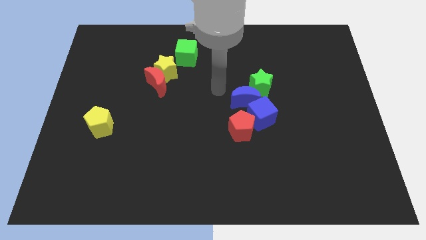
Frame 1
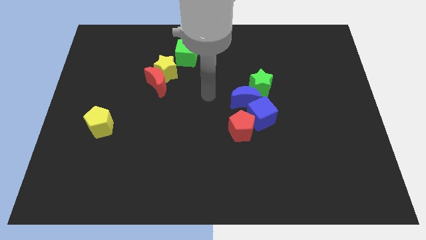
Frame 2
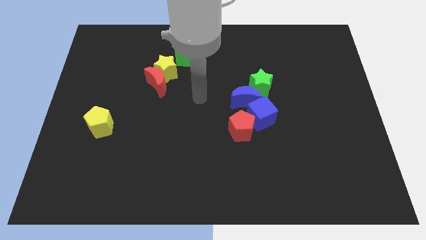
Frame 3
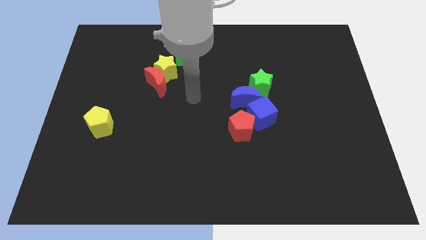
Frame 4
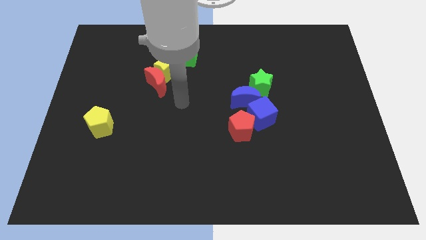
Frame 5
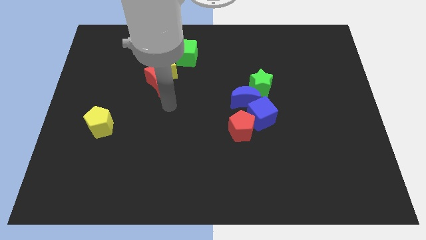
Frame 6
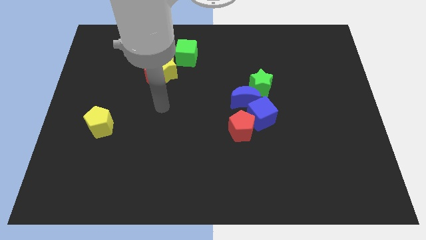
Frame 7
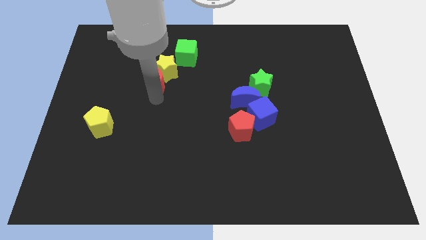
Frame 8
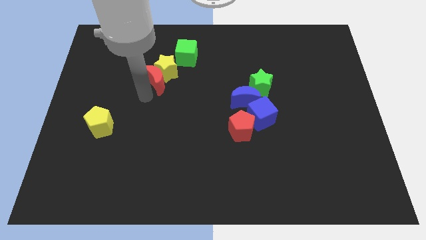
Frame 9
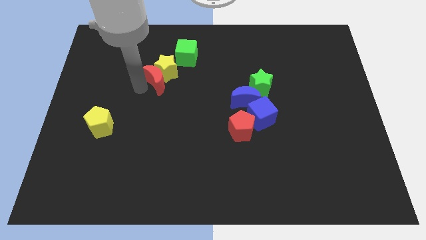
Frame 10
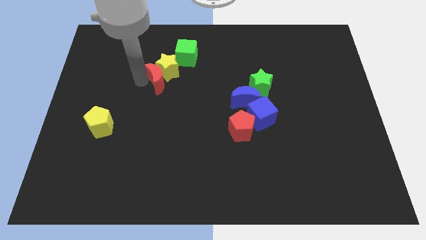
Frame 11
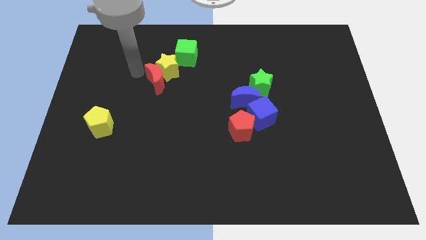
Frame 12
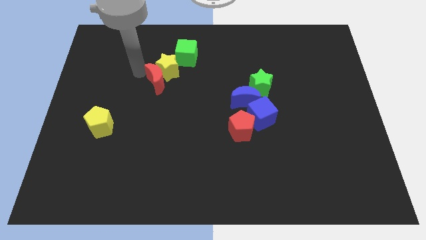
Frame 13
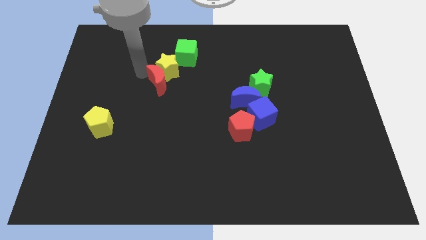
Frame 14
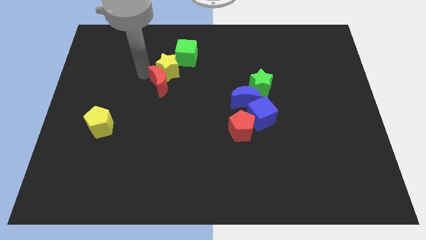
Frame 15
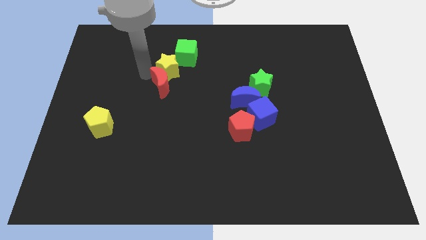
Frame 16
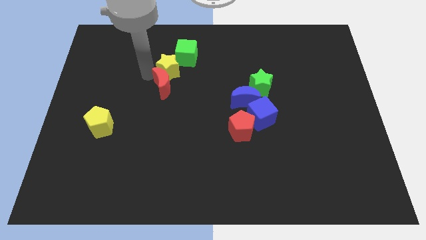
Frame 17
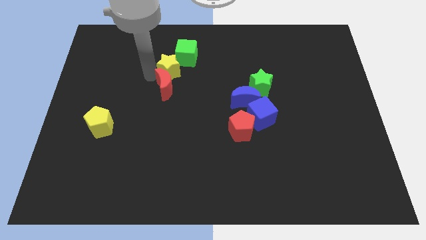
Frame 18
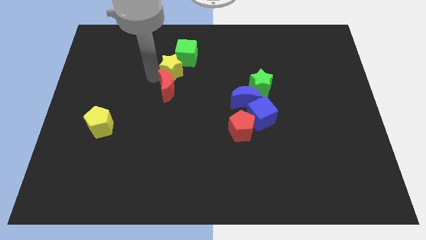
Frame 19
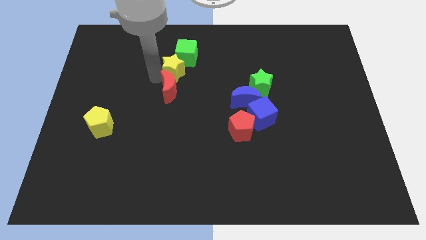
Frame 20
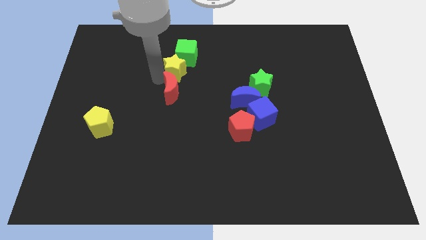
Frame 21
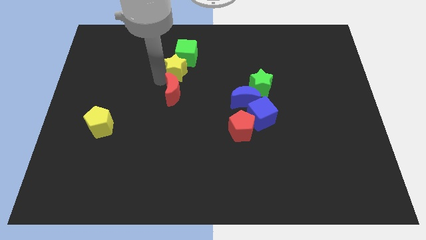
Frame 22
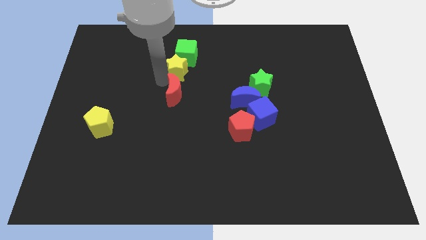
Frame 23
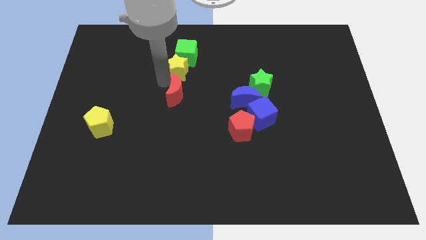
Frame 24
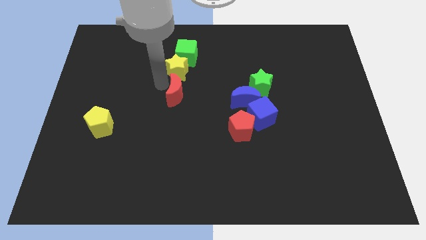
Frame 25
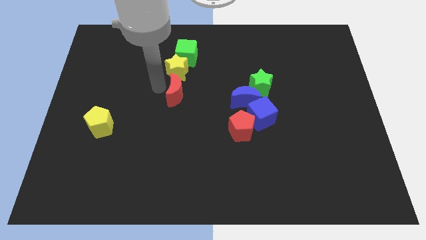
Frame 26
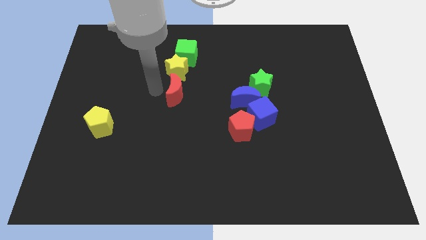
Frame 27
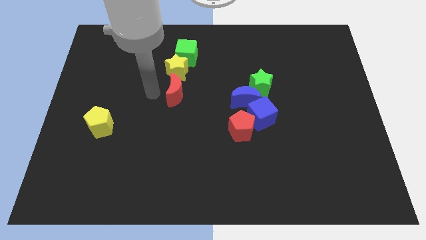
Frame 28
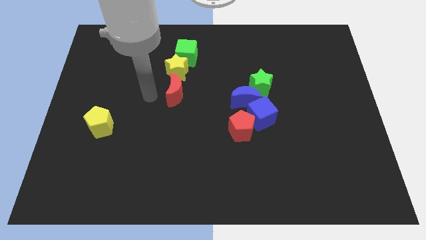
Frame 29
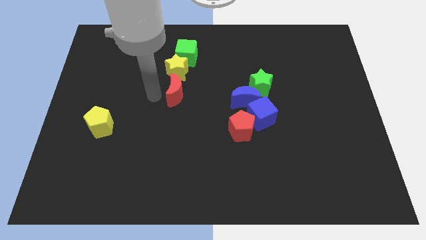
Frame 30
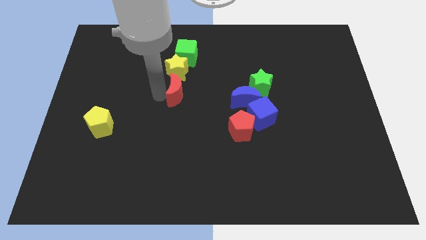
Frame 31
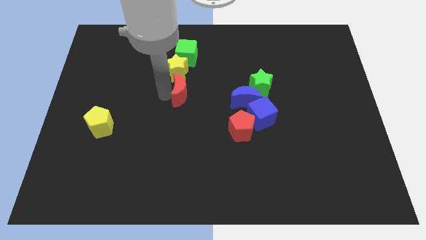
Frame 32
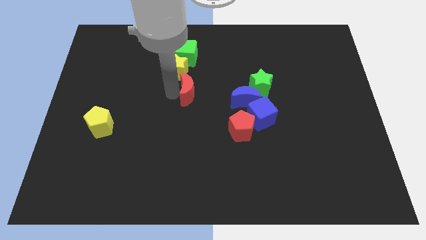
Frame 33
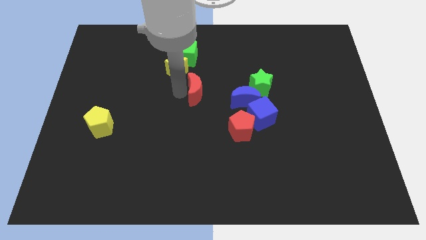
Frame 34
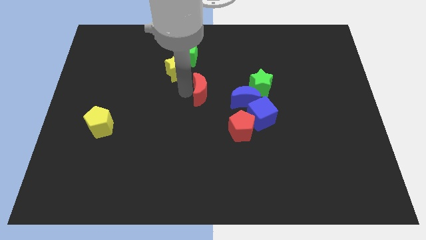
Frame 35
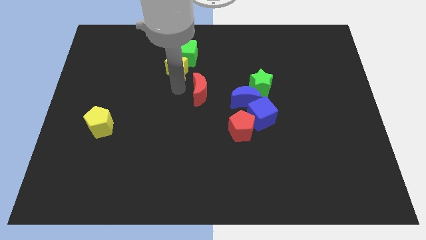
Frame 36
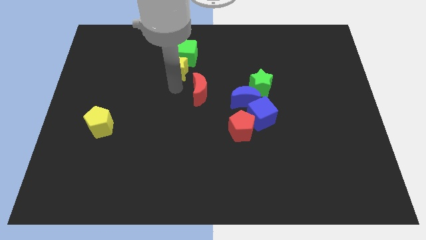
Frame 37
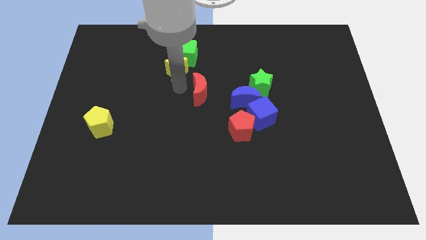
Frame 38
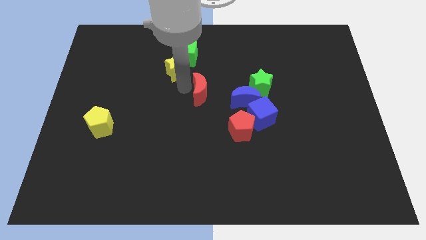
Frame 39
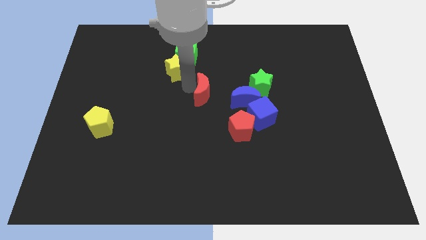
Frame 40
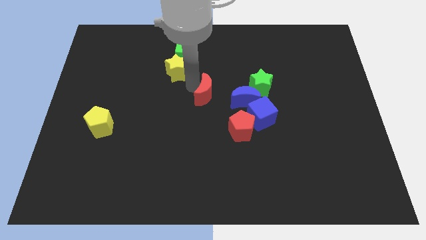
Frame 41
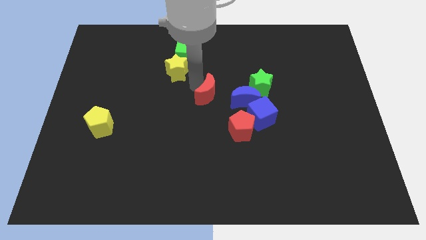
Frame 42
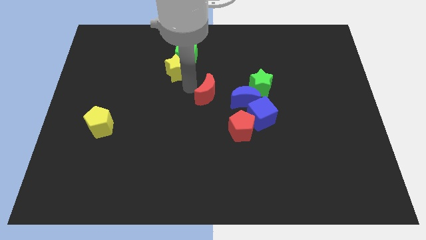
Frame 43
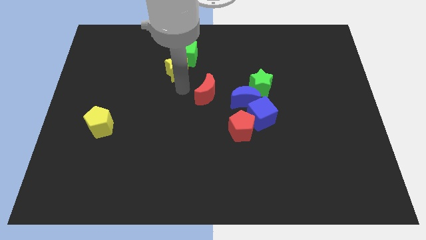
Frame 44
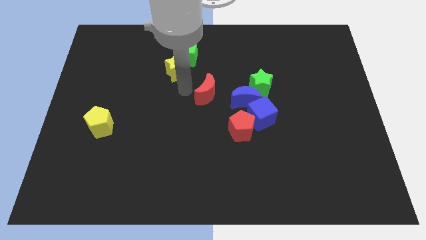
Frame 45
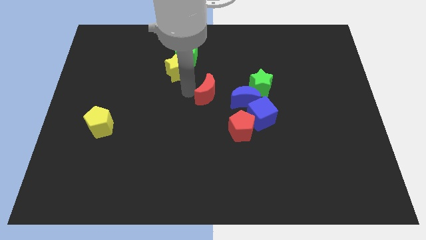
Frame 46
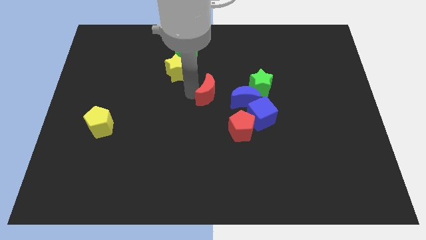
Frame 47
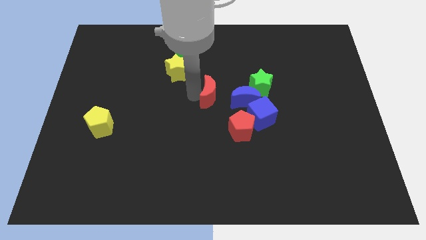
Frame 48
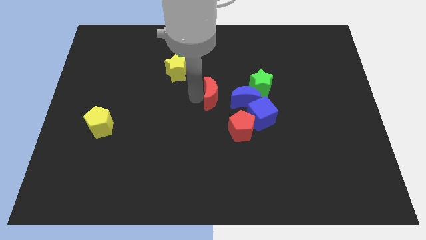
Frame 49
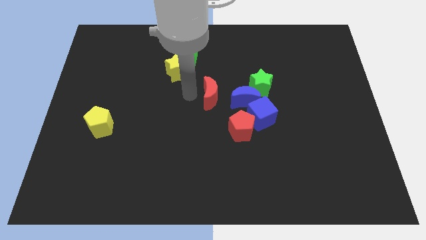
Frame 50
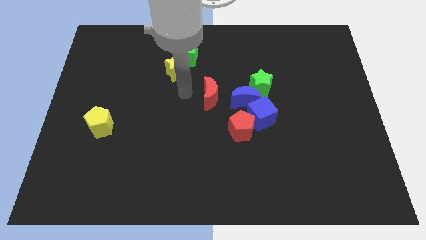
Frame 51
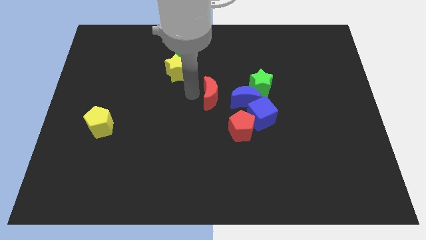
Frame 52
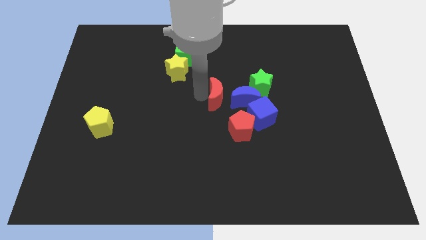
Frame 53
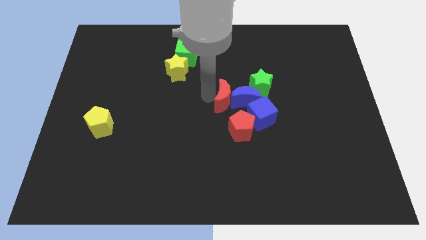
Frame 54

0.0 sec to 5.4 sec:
put the red moon to the blue moon

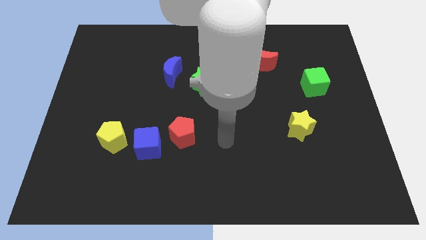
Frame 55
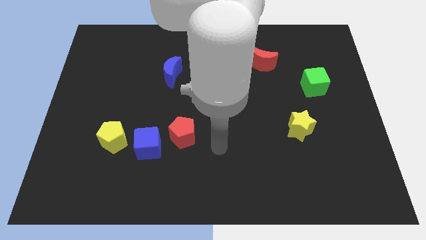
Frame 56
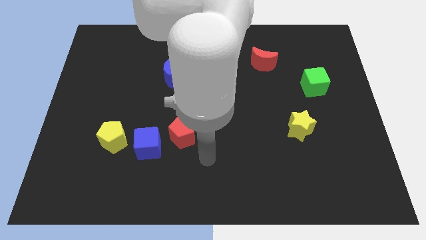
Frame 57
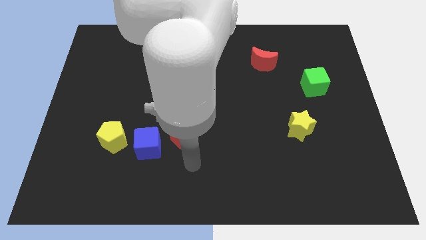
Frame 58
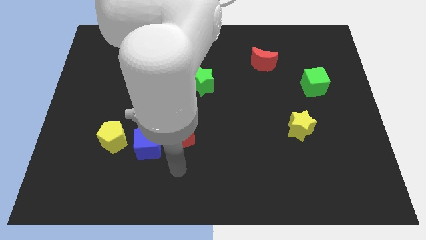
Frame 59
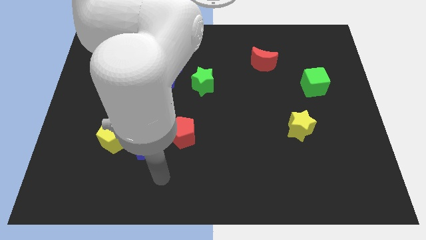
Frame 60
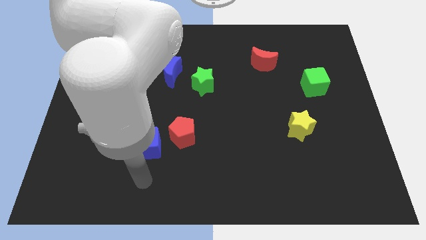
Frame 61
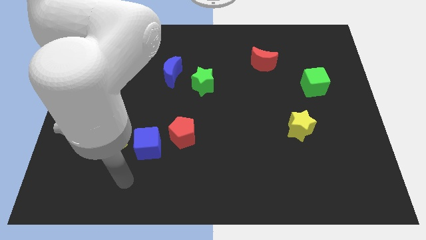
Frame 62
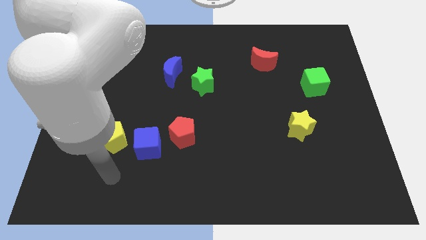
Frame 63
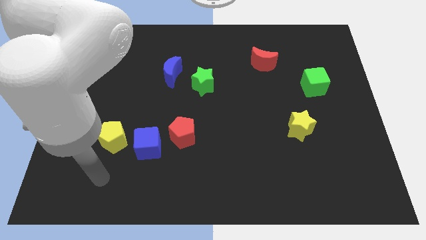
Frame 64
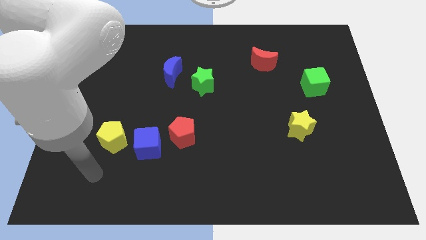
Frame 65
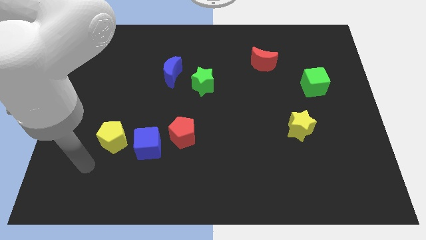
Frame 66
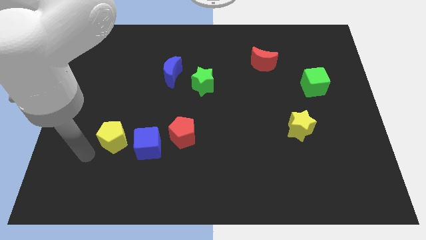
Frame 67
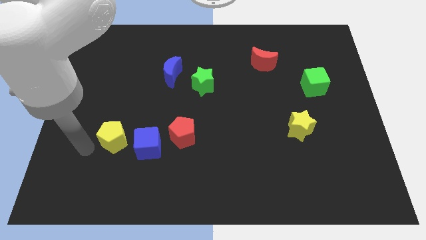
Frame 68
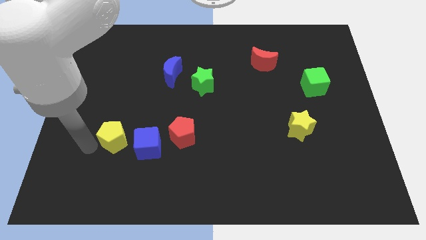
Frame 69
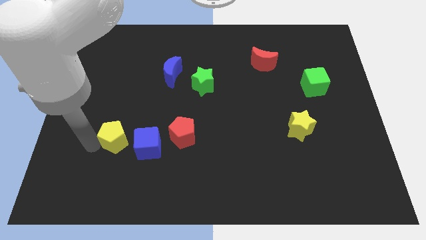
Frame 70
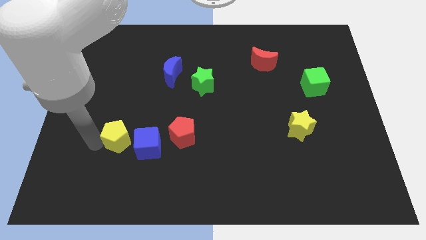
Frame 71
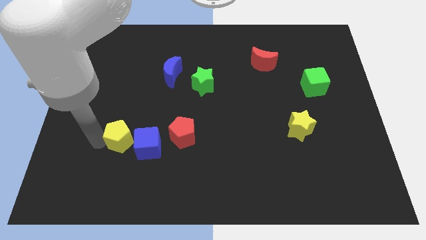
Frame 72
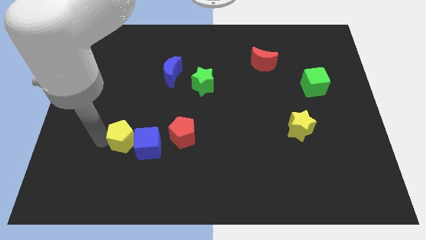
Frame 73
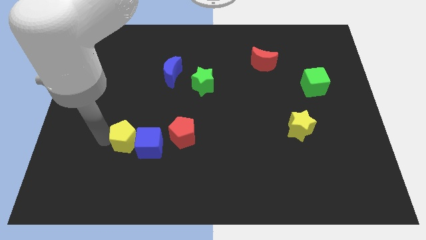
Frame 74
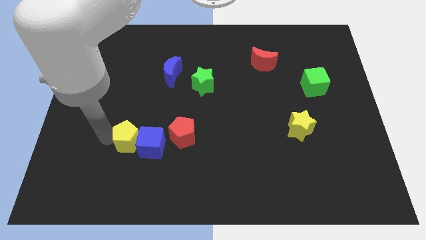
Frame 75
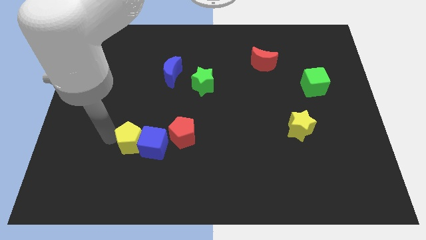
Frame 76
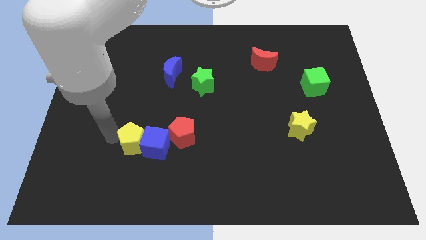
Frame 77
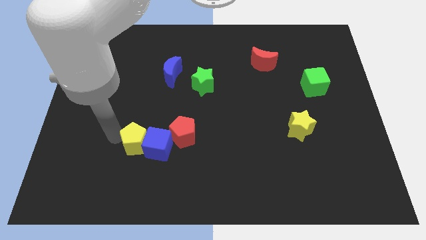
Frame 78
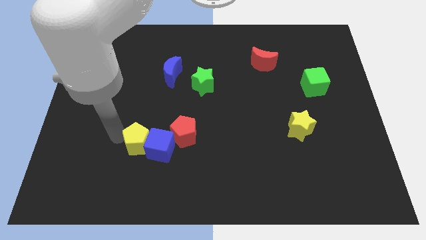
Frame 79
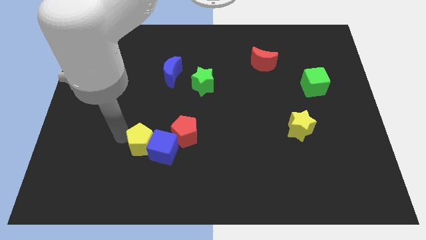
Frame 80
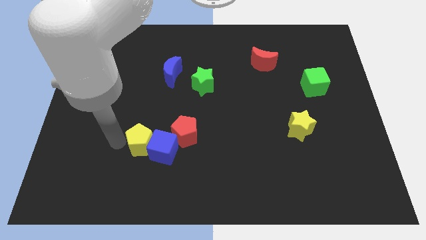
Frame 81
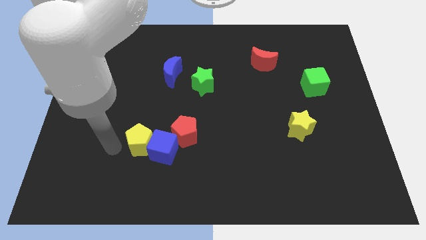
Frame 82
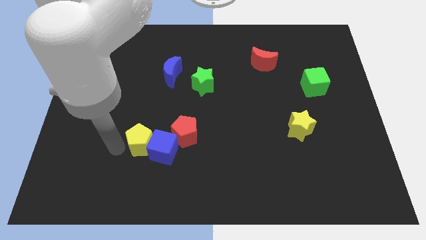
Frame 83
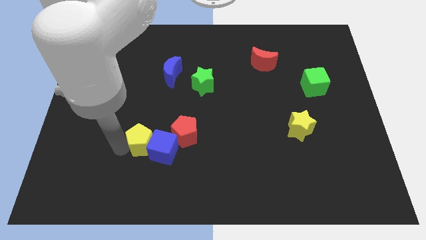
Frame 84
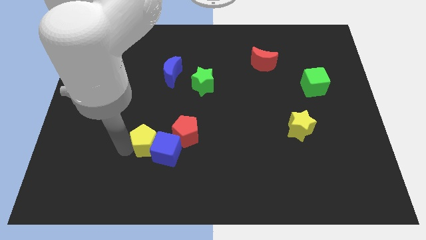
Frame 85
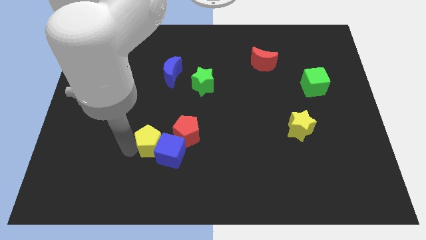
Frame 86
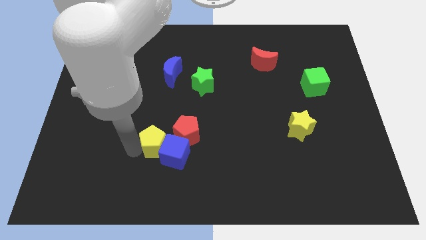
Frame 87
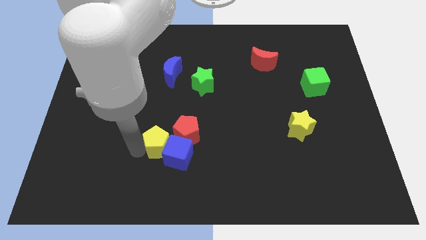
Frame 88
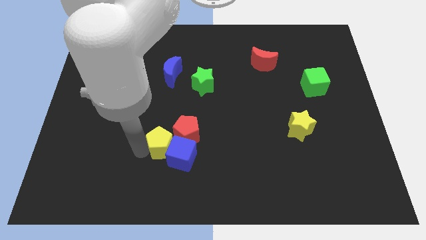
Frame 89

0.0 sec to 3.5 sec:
push the yellow pentagon to the red pentagon
